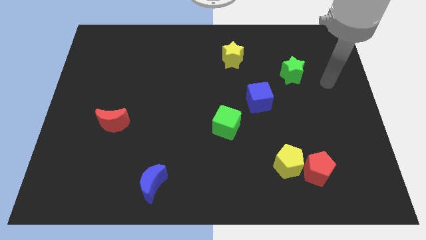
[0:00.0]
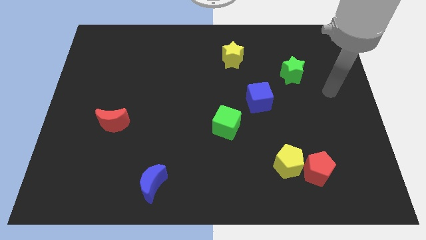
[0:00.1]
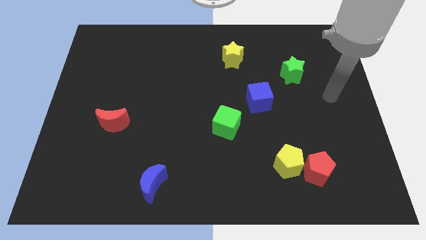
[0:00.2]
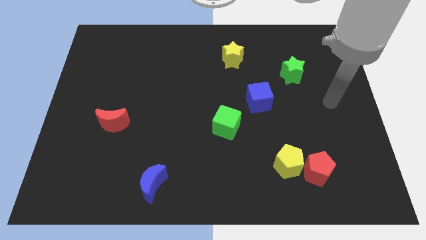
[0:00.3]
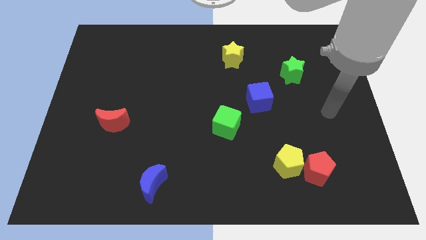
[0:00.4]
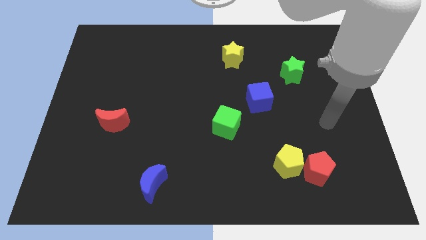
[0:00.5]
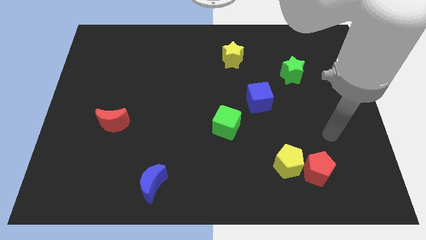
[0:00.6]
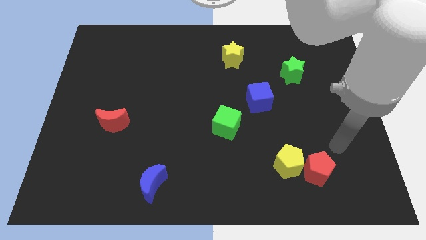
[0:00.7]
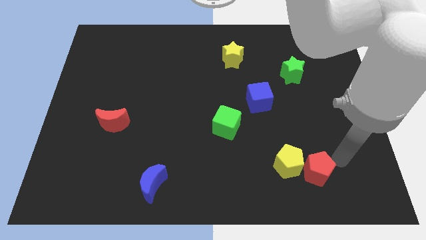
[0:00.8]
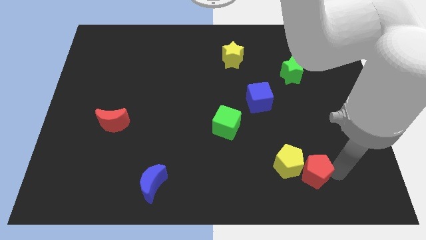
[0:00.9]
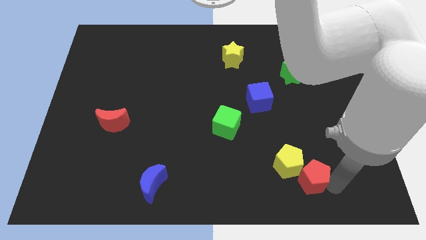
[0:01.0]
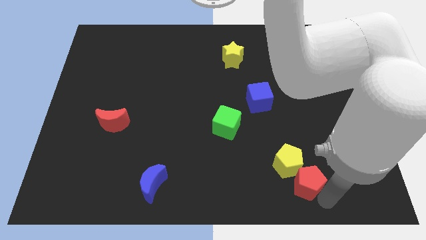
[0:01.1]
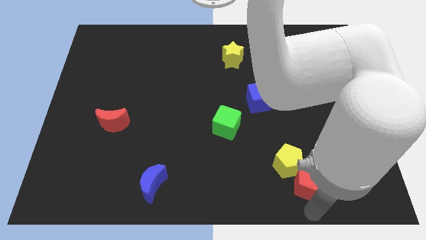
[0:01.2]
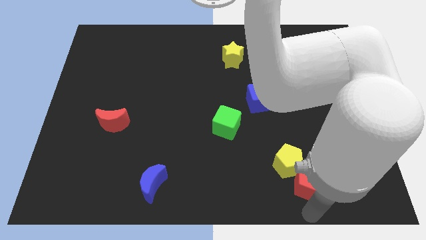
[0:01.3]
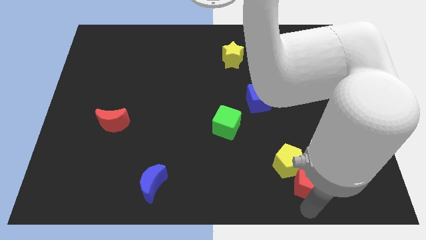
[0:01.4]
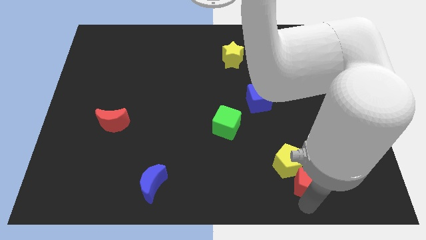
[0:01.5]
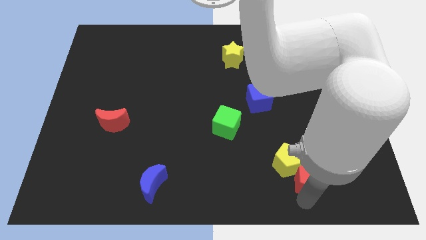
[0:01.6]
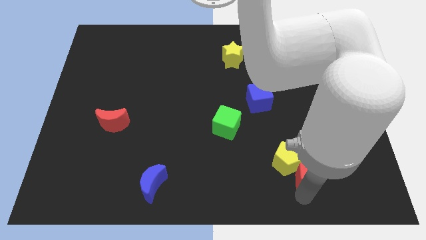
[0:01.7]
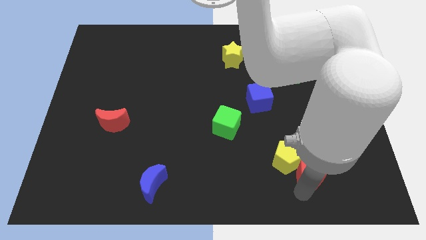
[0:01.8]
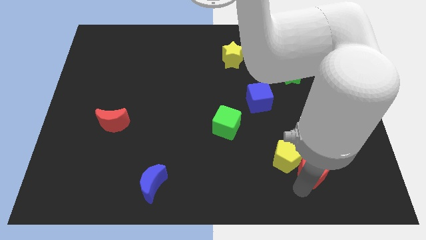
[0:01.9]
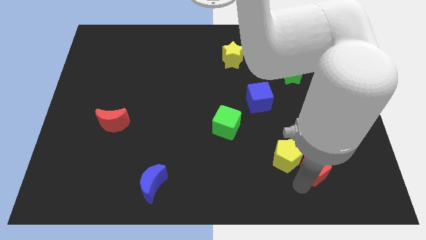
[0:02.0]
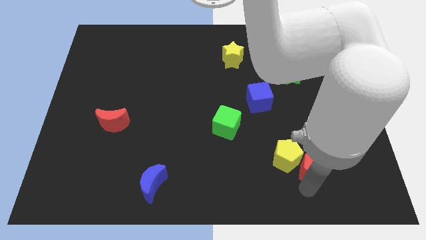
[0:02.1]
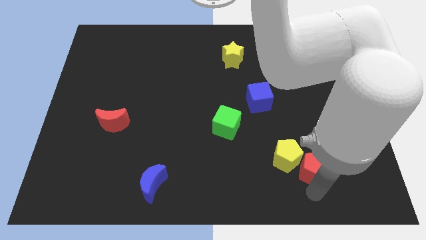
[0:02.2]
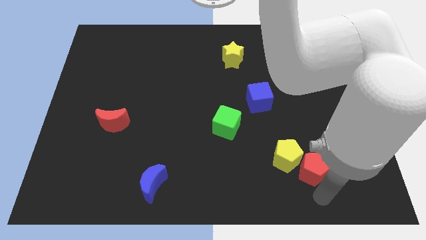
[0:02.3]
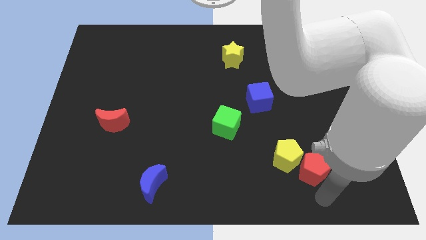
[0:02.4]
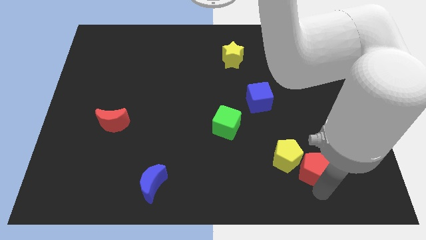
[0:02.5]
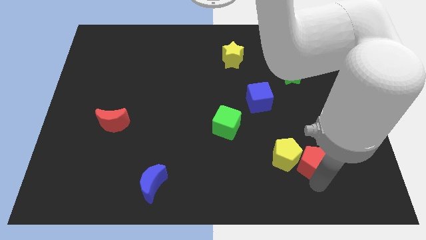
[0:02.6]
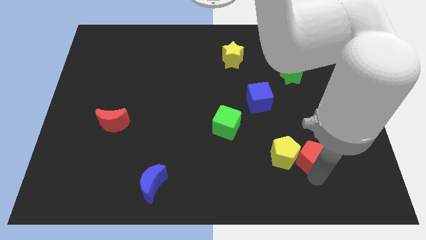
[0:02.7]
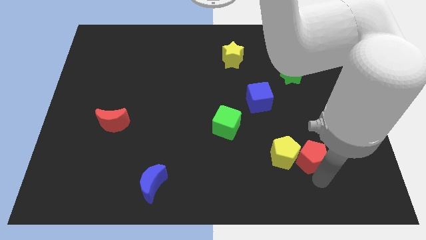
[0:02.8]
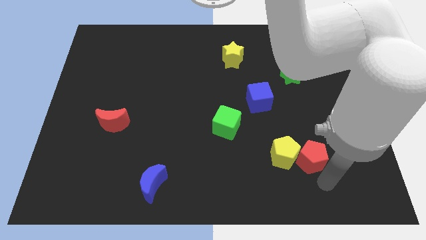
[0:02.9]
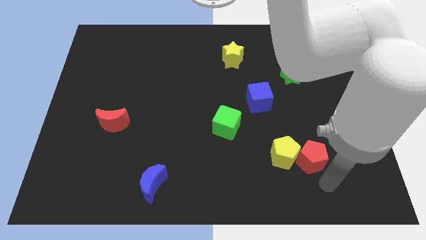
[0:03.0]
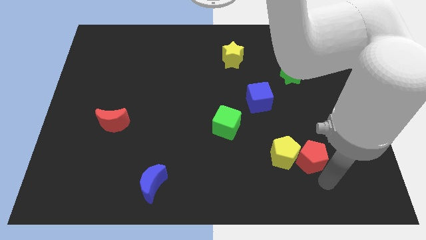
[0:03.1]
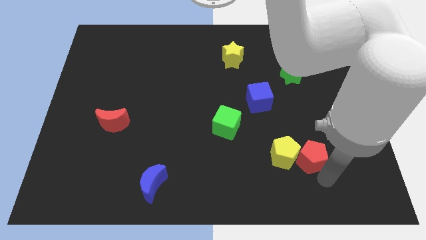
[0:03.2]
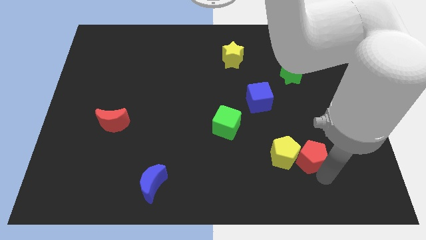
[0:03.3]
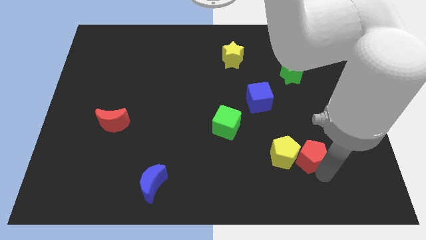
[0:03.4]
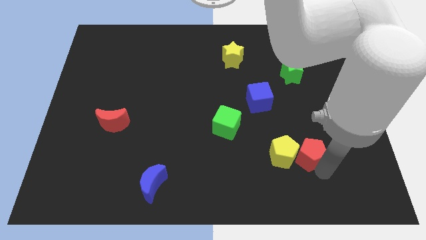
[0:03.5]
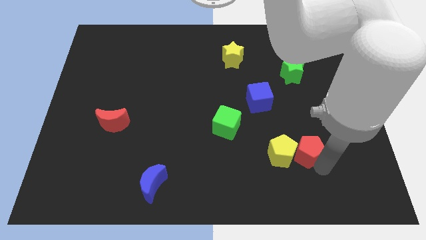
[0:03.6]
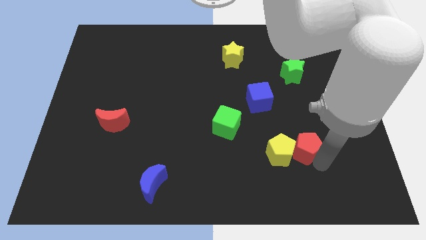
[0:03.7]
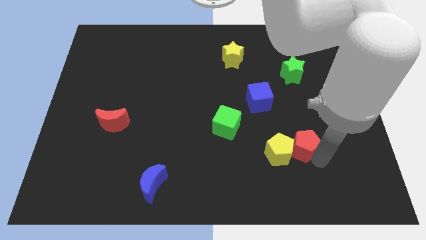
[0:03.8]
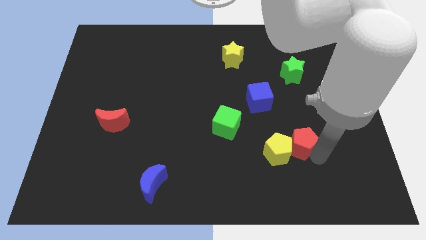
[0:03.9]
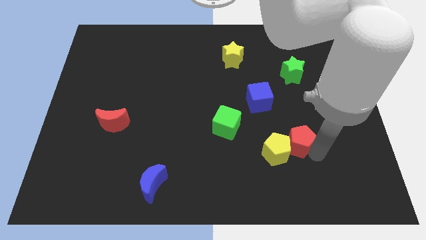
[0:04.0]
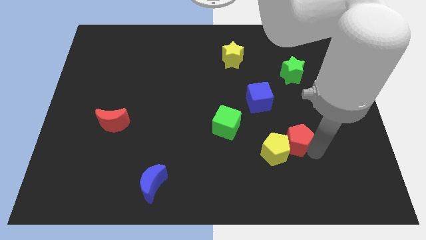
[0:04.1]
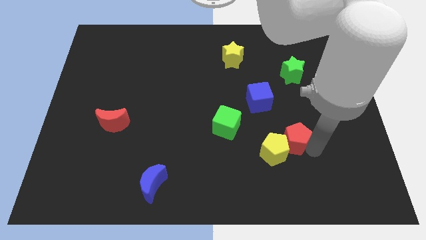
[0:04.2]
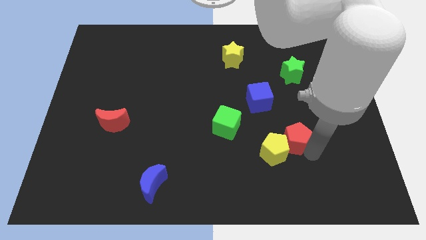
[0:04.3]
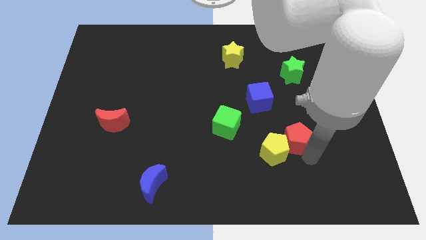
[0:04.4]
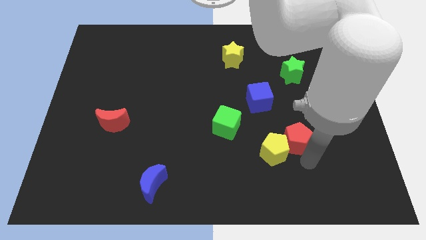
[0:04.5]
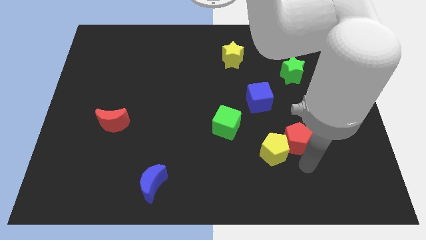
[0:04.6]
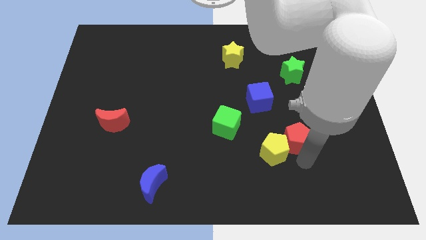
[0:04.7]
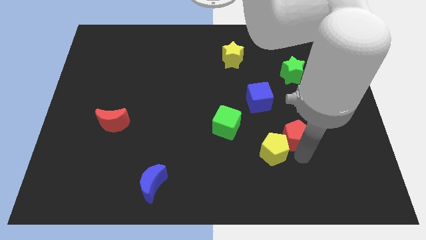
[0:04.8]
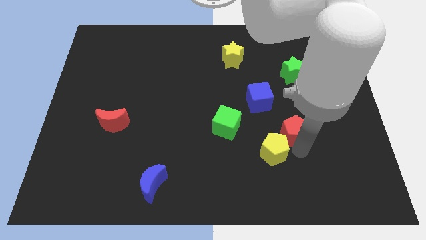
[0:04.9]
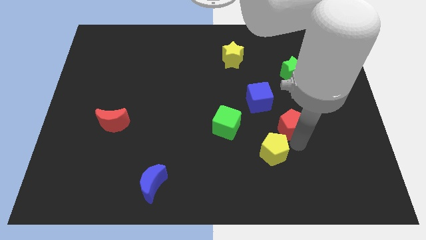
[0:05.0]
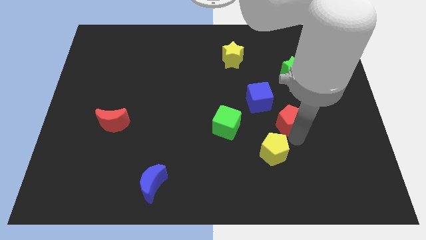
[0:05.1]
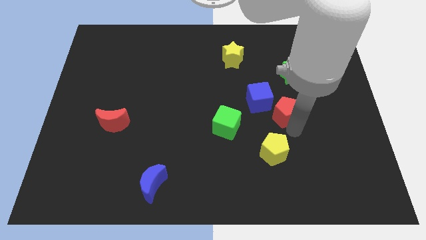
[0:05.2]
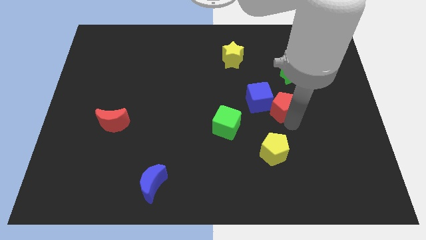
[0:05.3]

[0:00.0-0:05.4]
push the red pentagon close to the blue cube

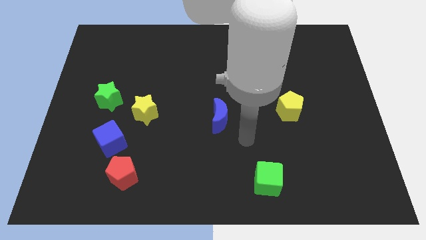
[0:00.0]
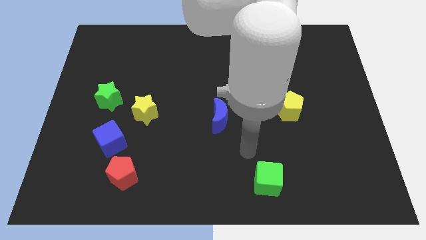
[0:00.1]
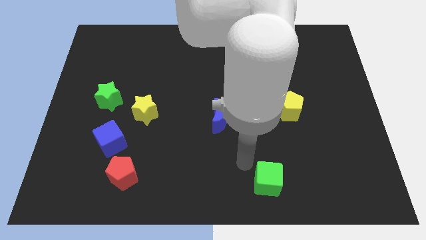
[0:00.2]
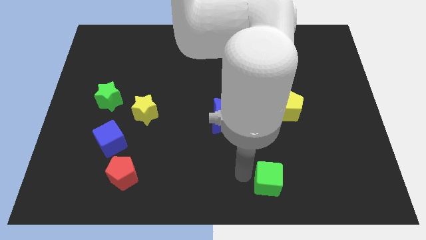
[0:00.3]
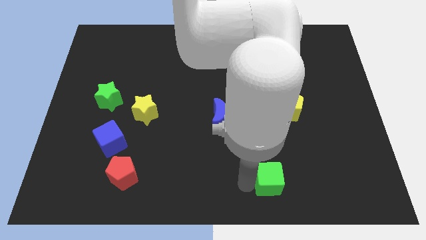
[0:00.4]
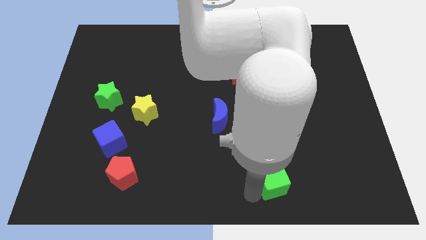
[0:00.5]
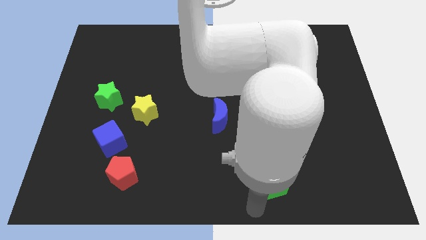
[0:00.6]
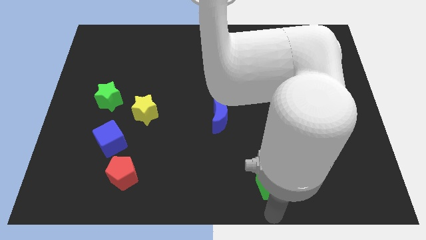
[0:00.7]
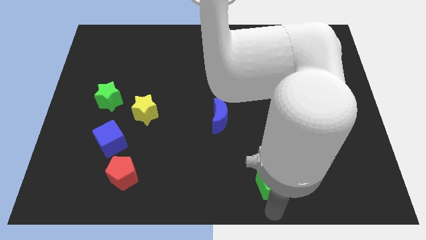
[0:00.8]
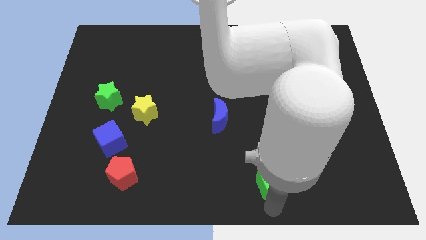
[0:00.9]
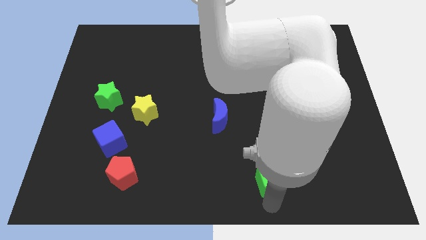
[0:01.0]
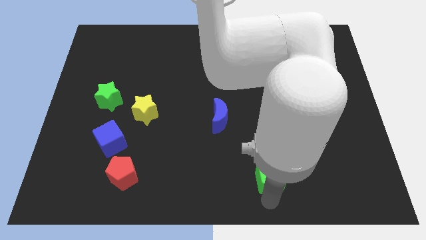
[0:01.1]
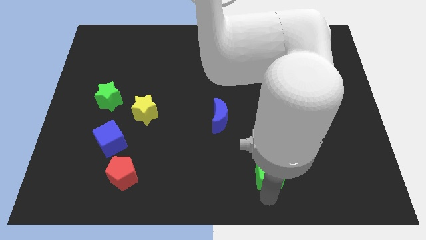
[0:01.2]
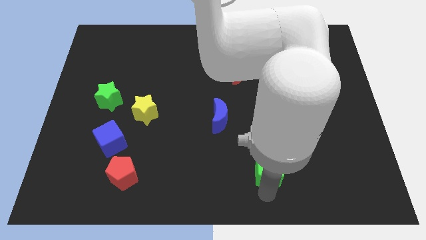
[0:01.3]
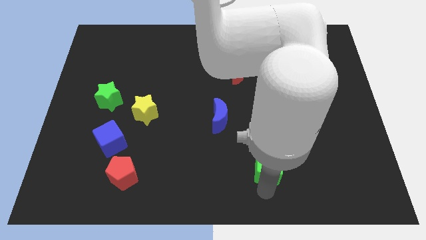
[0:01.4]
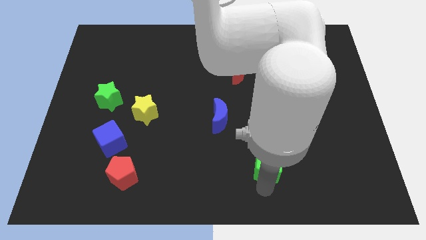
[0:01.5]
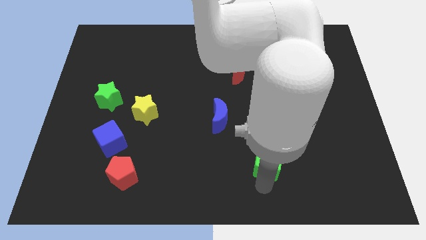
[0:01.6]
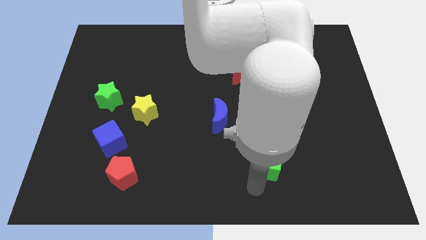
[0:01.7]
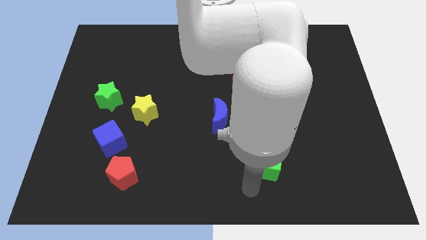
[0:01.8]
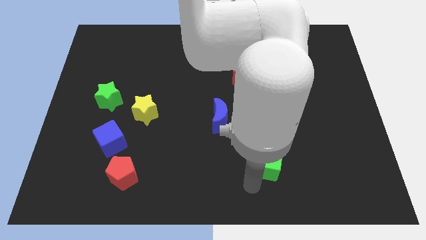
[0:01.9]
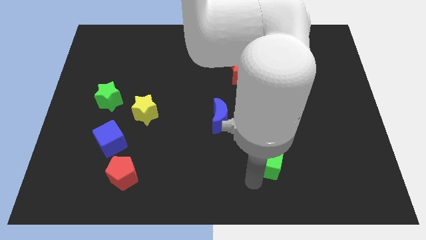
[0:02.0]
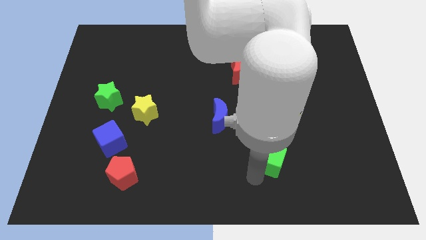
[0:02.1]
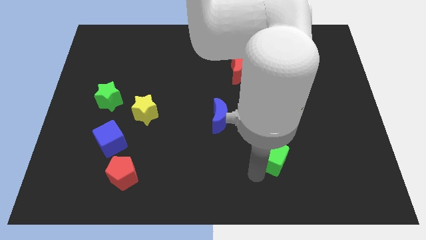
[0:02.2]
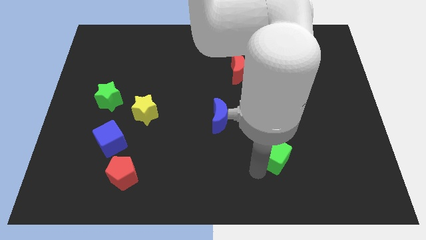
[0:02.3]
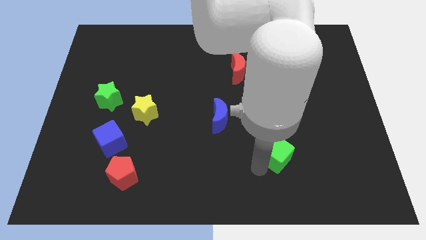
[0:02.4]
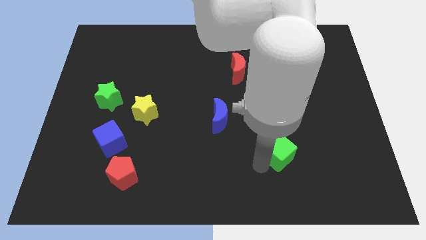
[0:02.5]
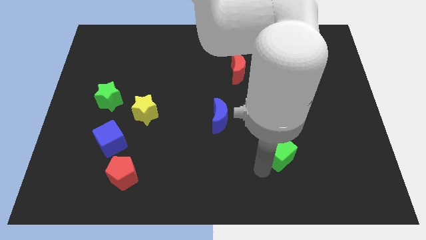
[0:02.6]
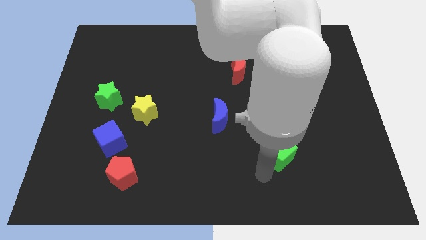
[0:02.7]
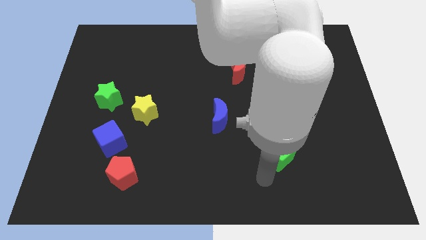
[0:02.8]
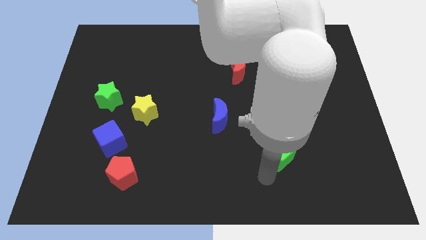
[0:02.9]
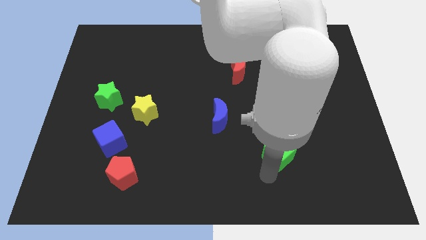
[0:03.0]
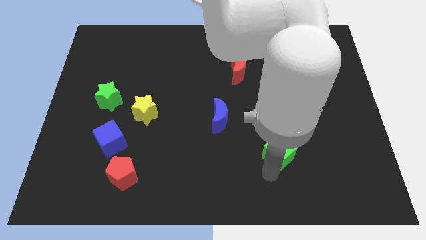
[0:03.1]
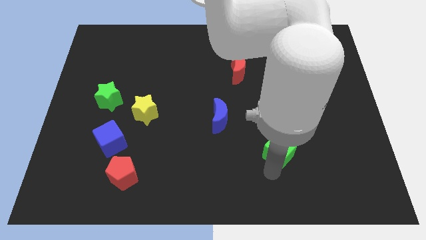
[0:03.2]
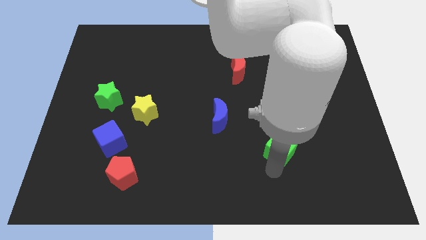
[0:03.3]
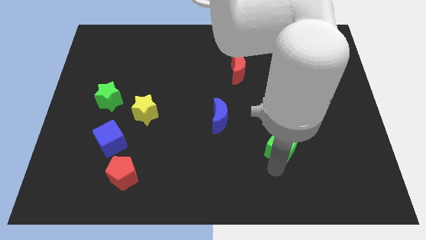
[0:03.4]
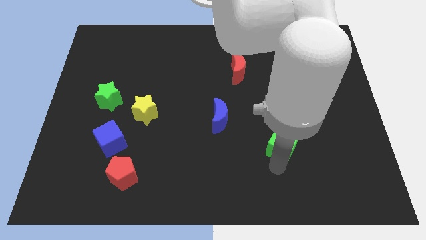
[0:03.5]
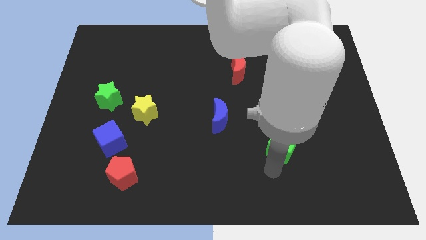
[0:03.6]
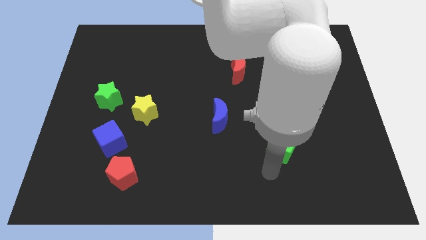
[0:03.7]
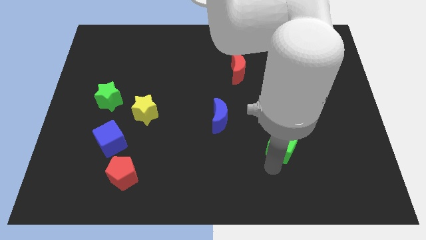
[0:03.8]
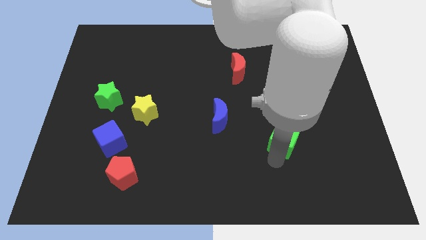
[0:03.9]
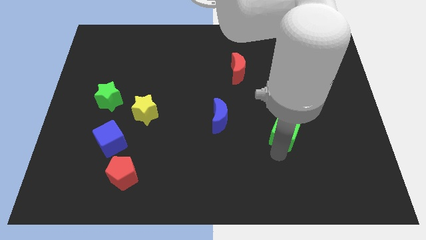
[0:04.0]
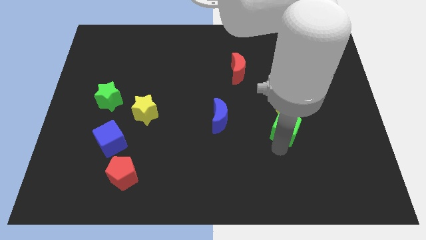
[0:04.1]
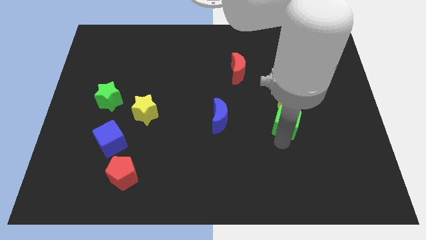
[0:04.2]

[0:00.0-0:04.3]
put the green cube to the yellow pentagon
